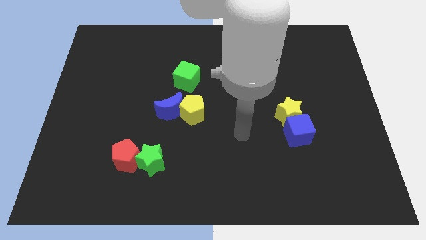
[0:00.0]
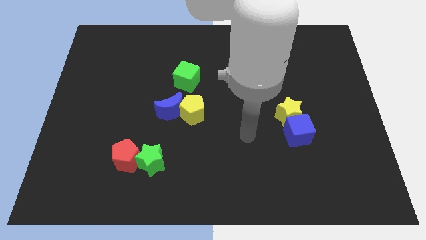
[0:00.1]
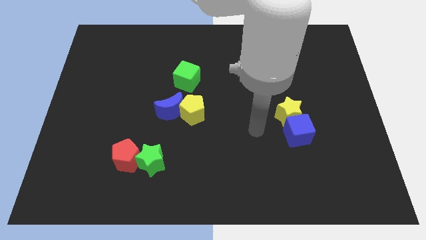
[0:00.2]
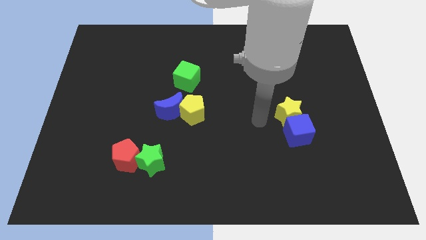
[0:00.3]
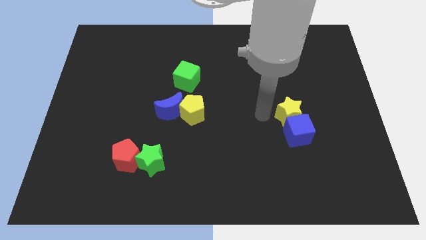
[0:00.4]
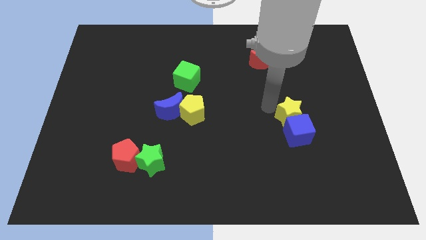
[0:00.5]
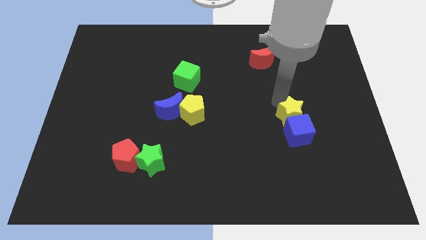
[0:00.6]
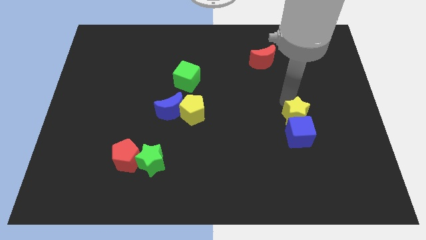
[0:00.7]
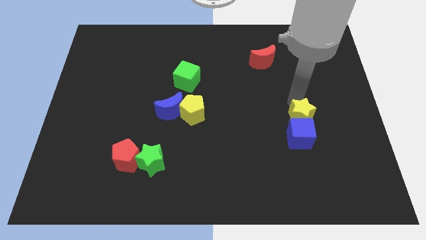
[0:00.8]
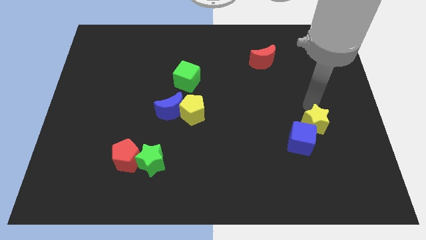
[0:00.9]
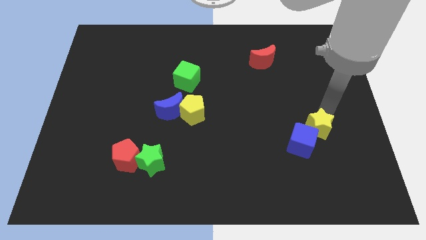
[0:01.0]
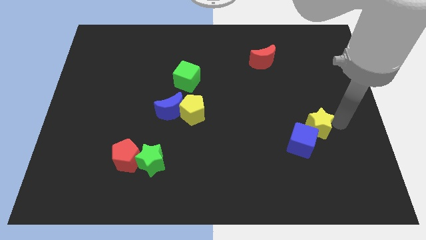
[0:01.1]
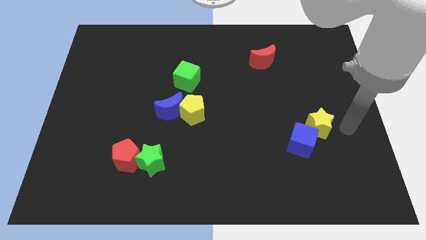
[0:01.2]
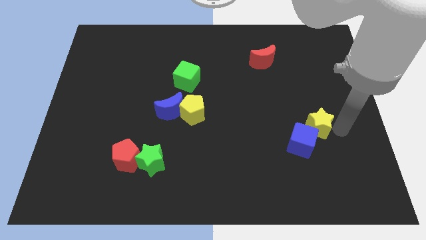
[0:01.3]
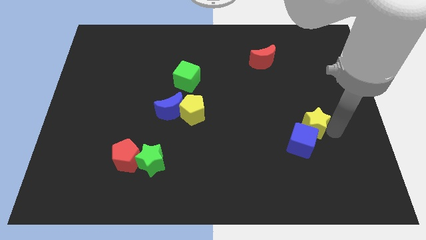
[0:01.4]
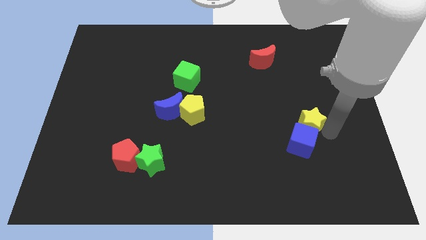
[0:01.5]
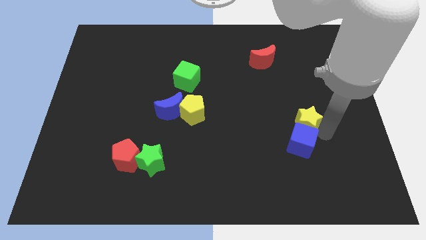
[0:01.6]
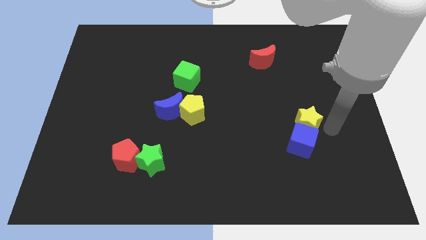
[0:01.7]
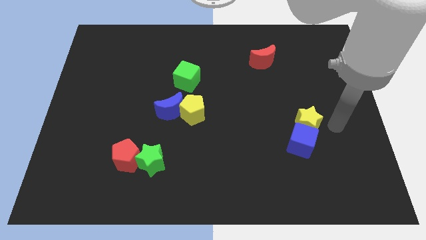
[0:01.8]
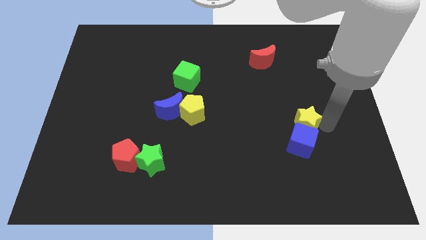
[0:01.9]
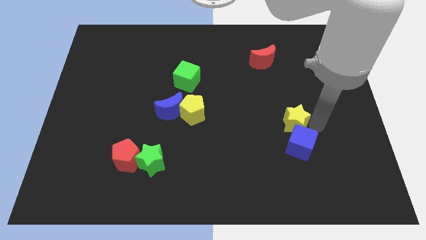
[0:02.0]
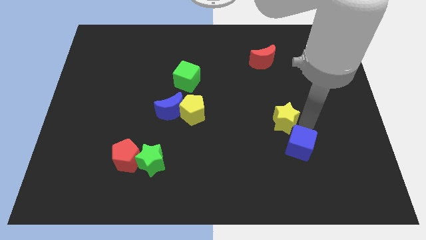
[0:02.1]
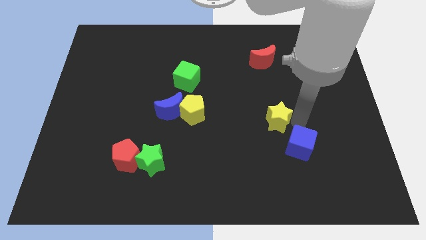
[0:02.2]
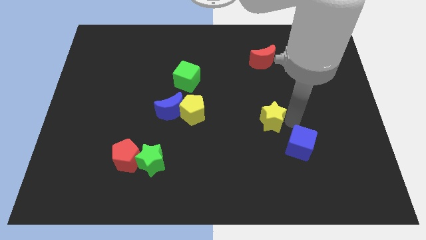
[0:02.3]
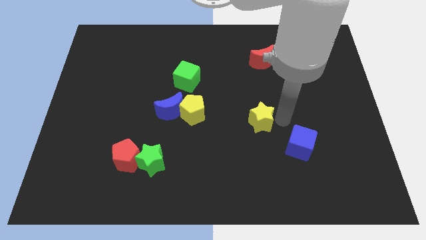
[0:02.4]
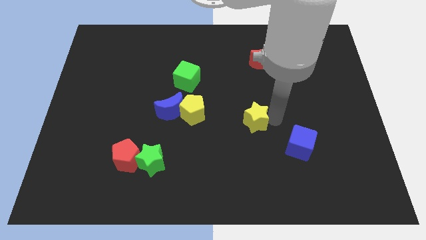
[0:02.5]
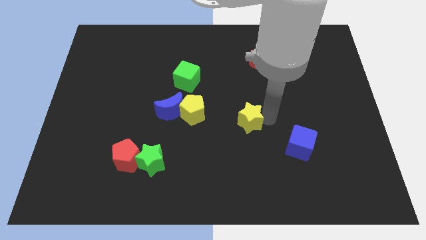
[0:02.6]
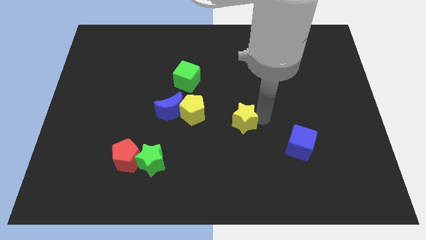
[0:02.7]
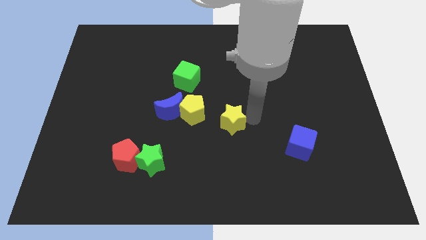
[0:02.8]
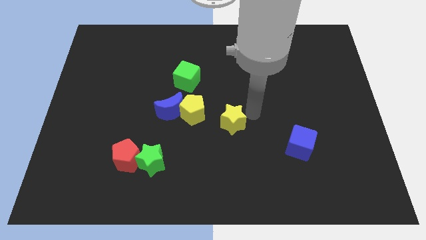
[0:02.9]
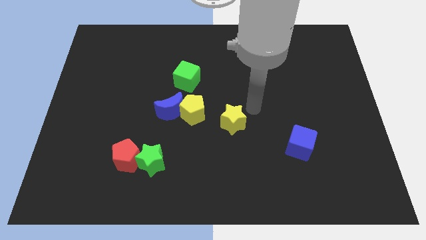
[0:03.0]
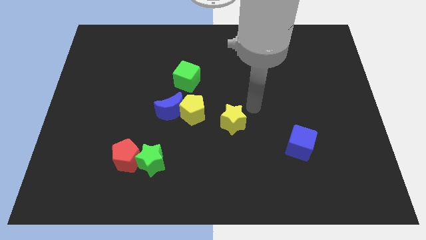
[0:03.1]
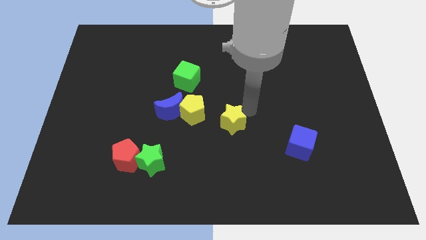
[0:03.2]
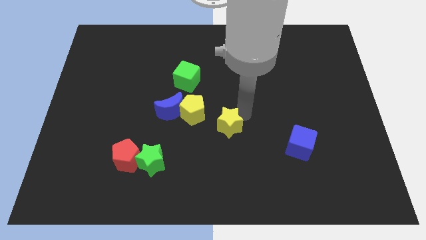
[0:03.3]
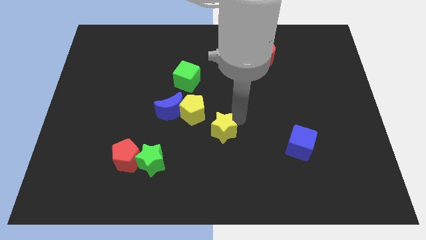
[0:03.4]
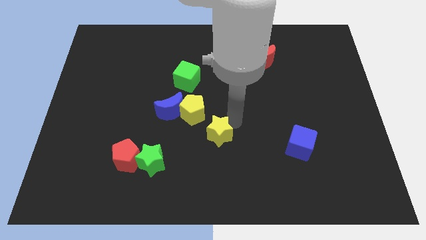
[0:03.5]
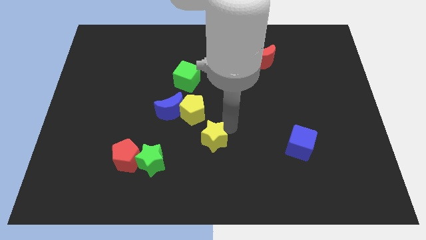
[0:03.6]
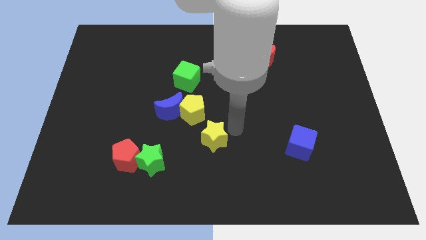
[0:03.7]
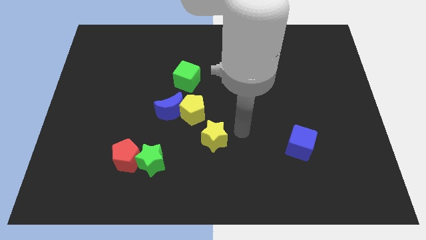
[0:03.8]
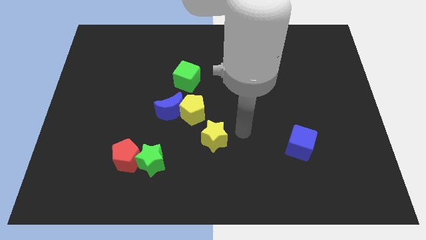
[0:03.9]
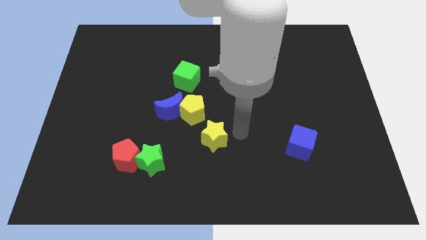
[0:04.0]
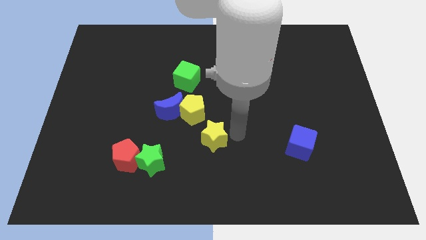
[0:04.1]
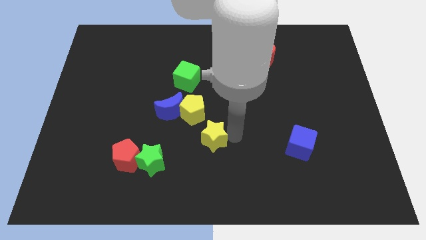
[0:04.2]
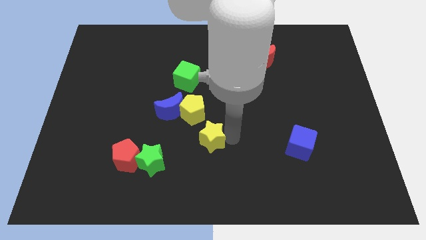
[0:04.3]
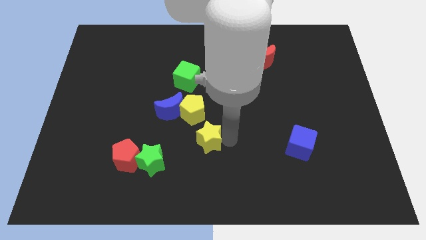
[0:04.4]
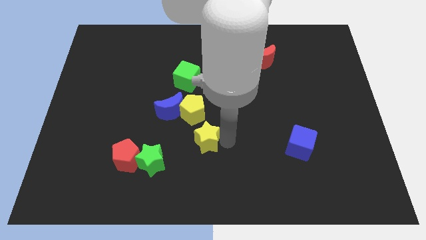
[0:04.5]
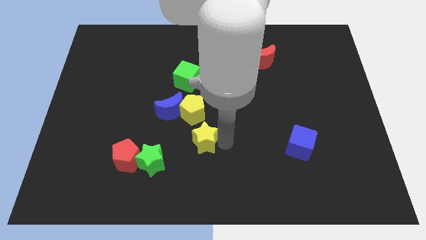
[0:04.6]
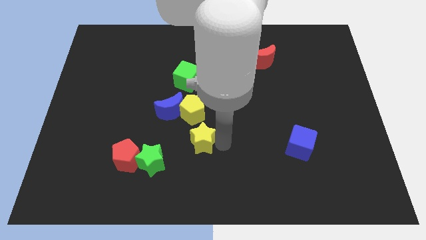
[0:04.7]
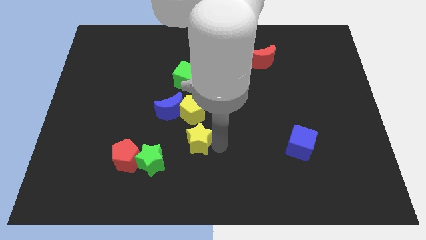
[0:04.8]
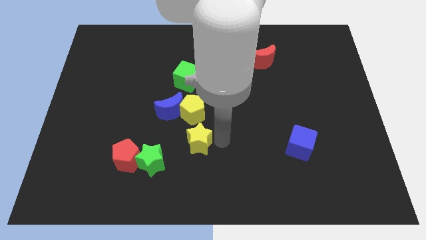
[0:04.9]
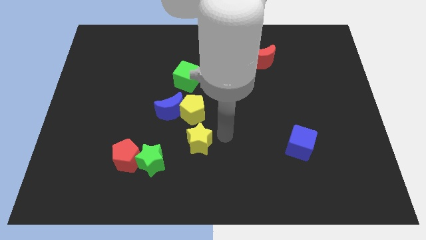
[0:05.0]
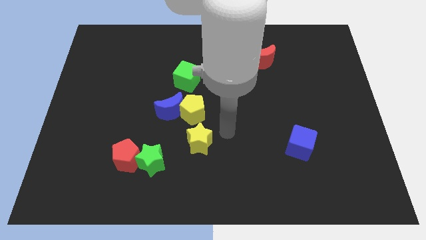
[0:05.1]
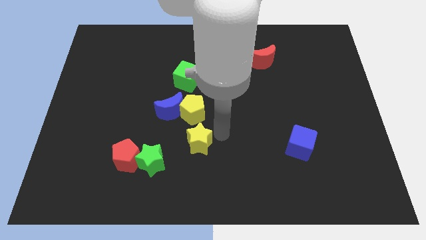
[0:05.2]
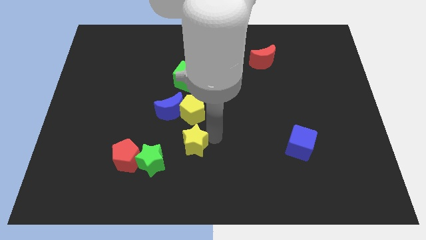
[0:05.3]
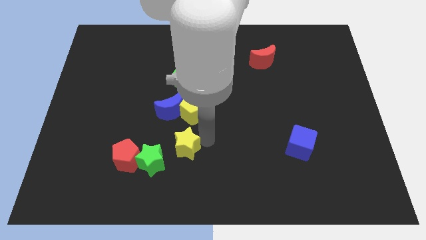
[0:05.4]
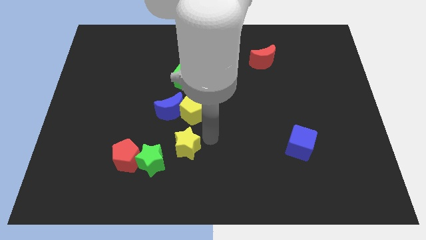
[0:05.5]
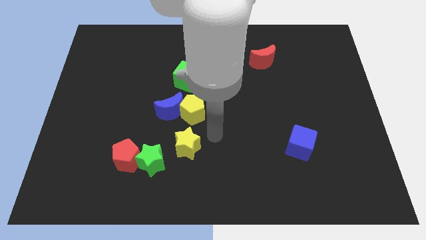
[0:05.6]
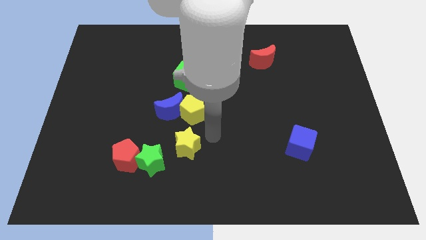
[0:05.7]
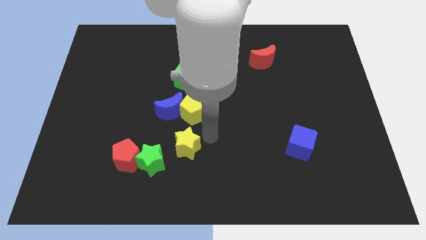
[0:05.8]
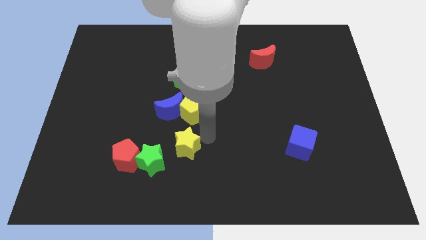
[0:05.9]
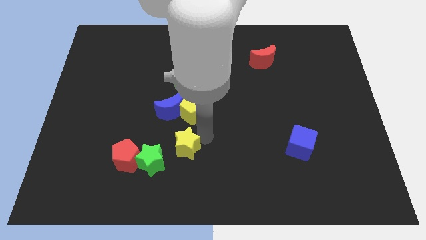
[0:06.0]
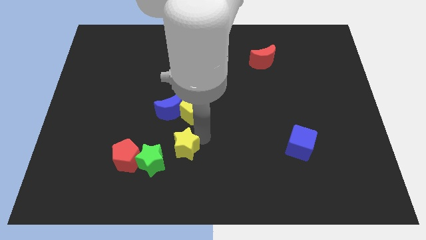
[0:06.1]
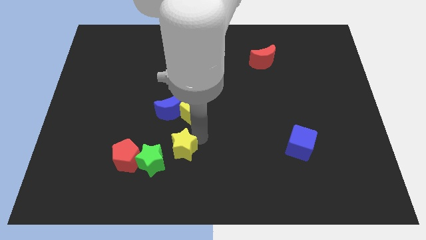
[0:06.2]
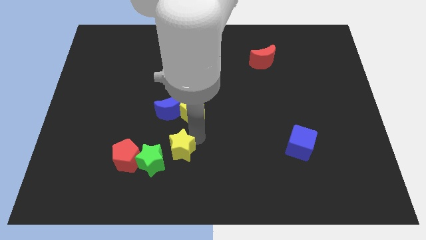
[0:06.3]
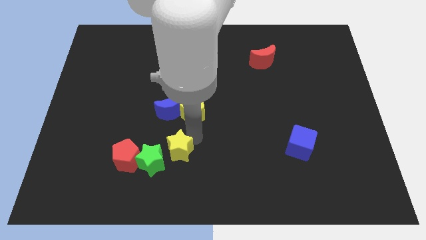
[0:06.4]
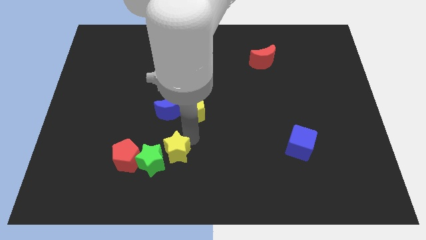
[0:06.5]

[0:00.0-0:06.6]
move the yellow star towards the green star
